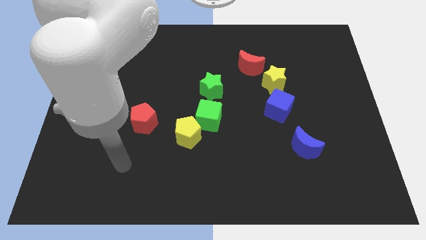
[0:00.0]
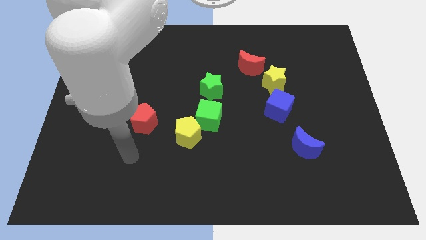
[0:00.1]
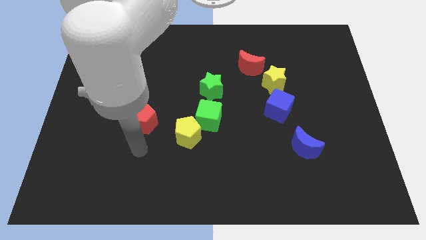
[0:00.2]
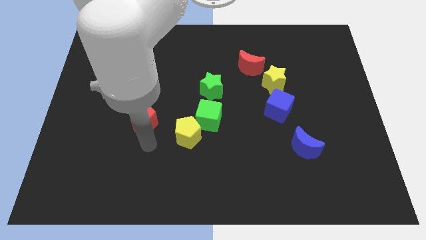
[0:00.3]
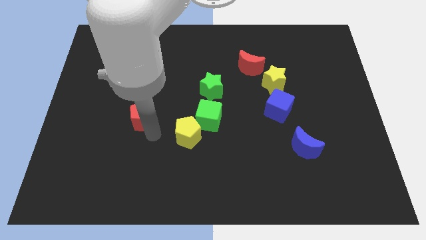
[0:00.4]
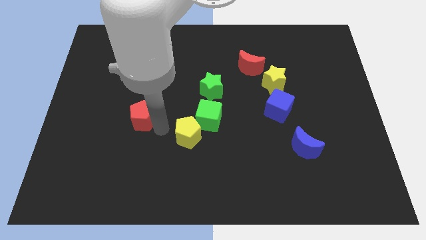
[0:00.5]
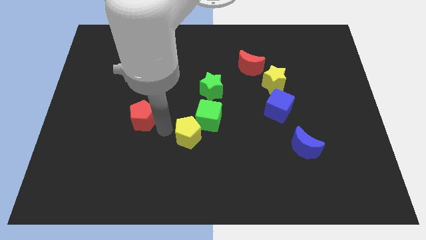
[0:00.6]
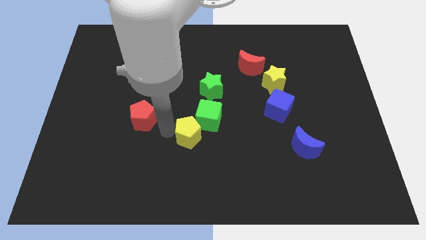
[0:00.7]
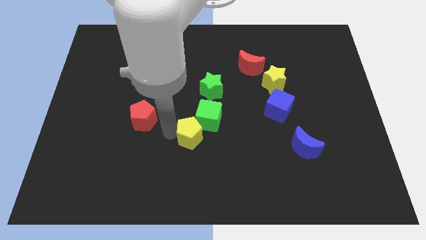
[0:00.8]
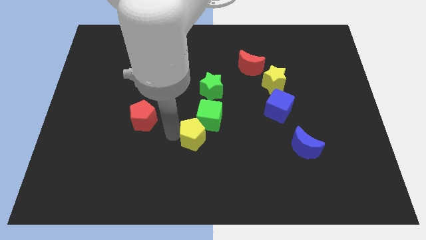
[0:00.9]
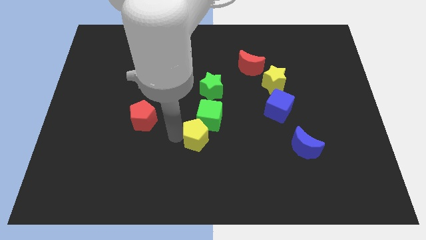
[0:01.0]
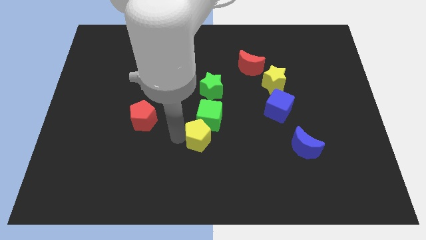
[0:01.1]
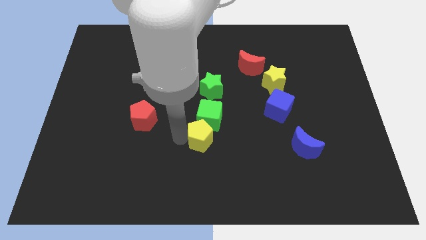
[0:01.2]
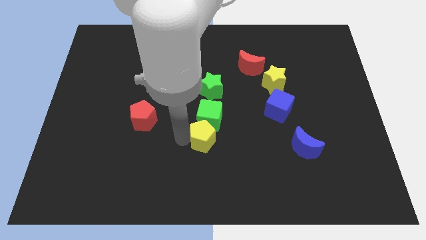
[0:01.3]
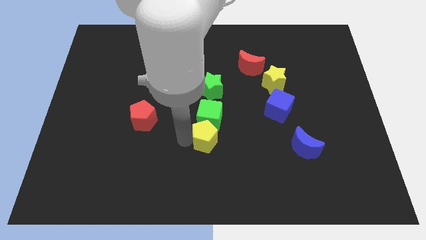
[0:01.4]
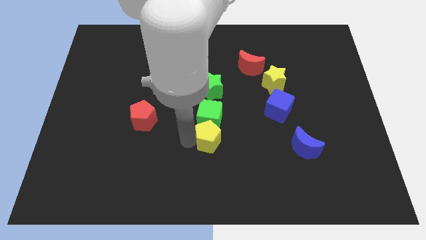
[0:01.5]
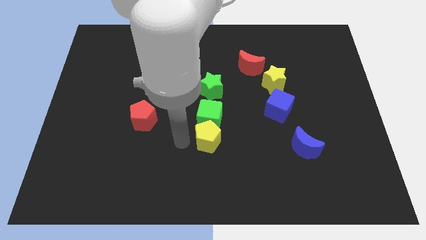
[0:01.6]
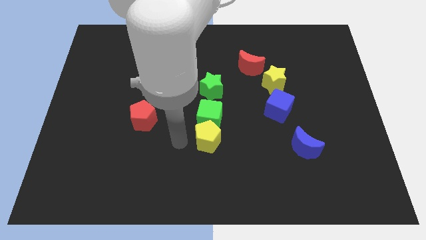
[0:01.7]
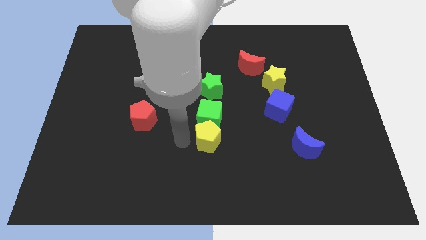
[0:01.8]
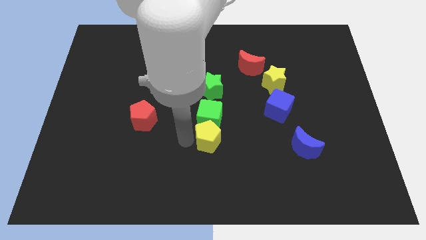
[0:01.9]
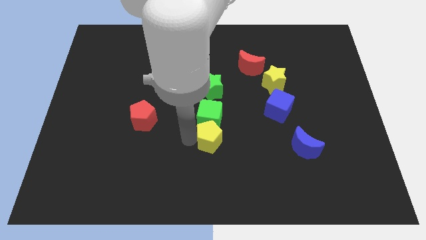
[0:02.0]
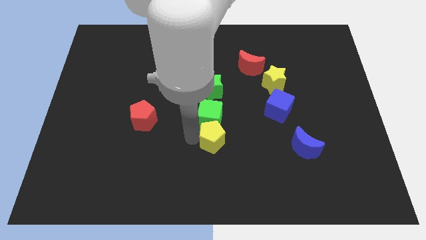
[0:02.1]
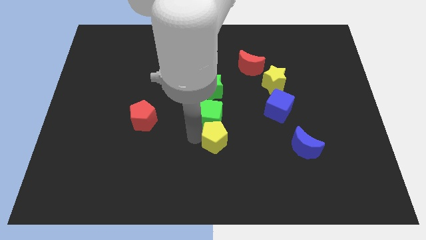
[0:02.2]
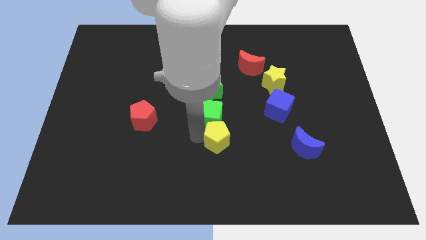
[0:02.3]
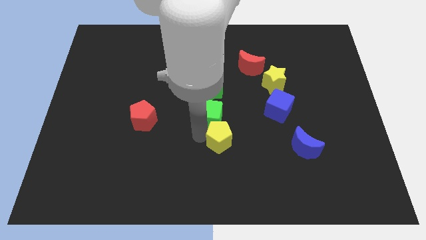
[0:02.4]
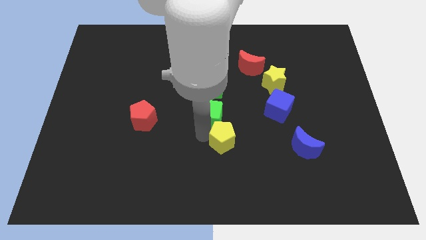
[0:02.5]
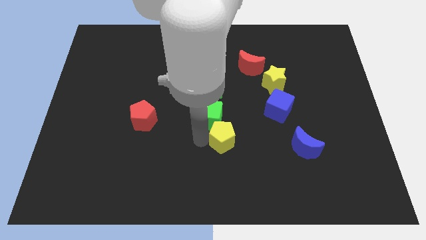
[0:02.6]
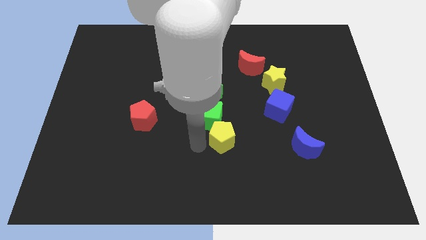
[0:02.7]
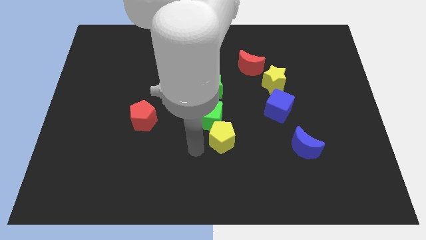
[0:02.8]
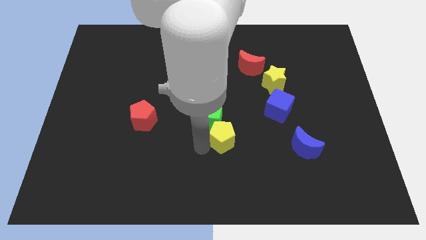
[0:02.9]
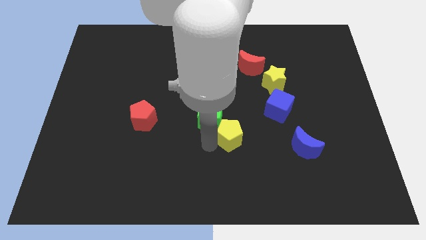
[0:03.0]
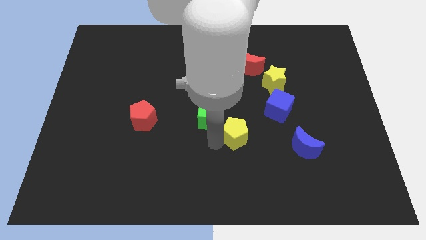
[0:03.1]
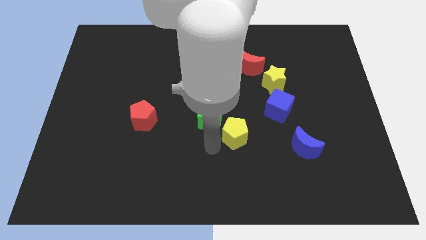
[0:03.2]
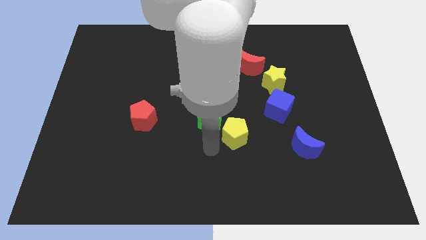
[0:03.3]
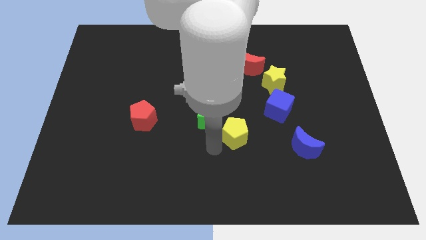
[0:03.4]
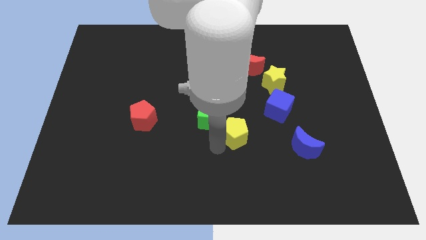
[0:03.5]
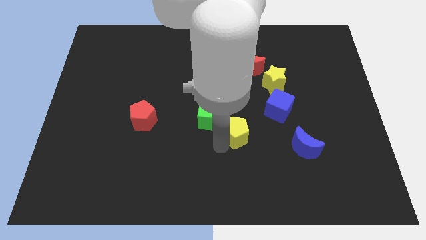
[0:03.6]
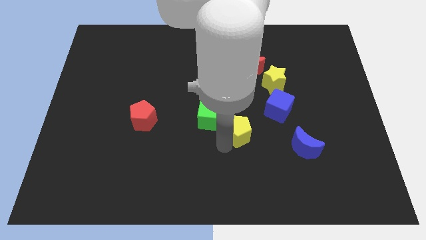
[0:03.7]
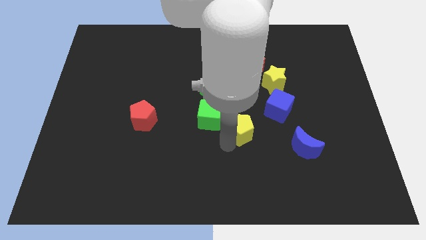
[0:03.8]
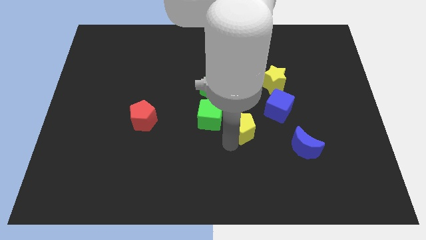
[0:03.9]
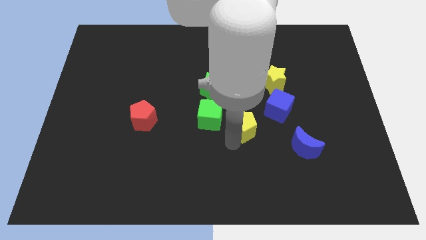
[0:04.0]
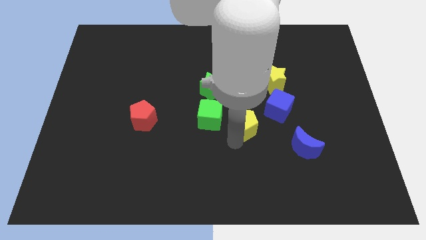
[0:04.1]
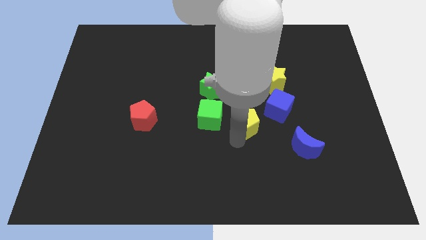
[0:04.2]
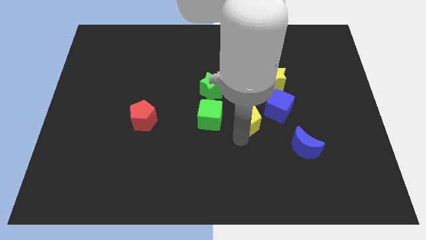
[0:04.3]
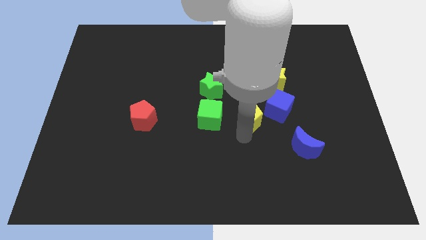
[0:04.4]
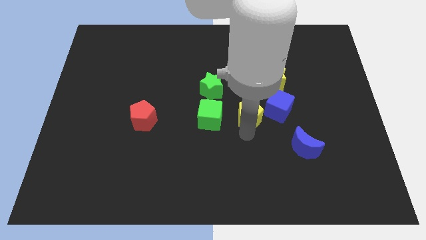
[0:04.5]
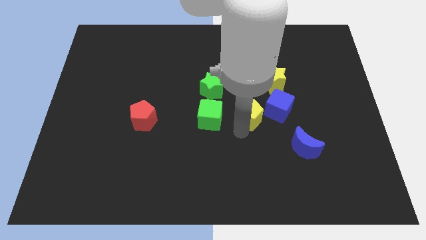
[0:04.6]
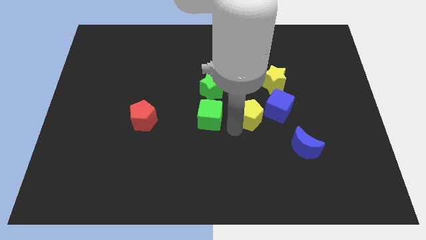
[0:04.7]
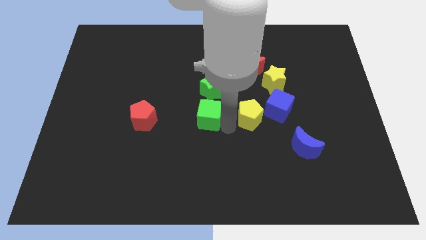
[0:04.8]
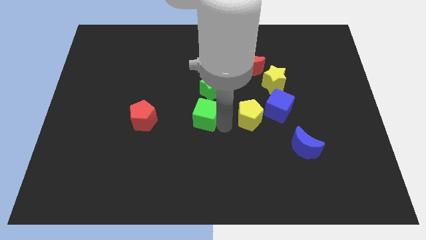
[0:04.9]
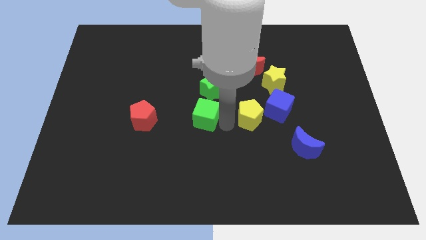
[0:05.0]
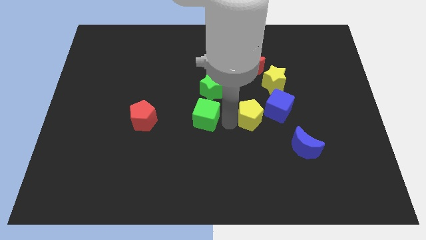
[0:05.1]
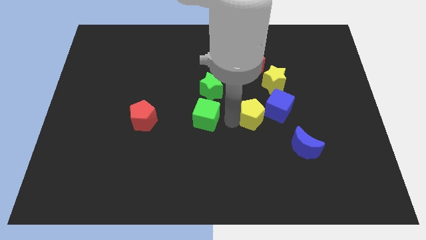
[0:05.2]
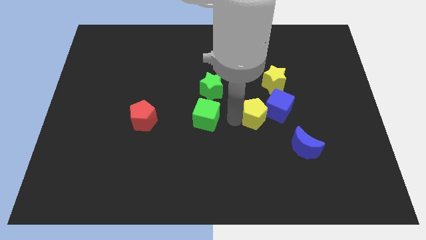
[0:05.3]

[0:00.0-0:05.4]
push the yellow pentagon towards the blue cube

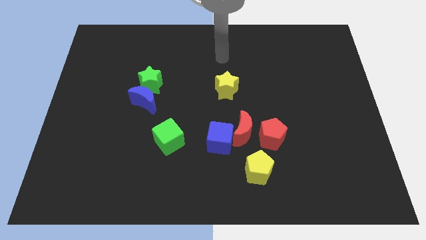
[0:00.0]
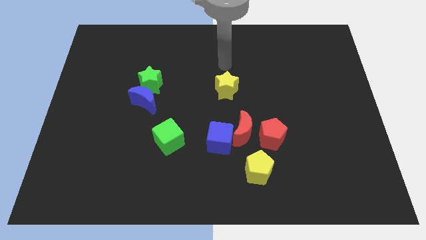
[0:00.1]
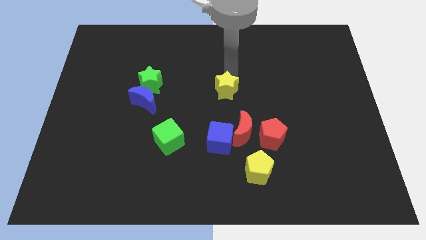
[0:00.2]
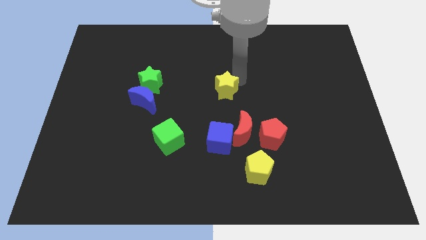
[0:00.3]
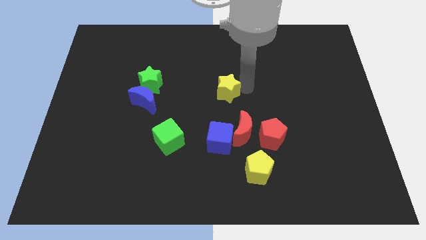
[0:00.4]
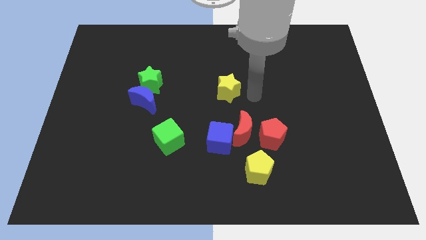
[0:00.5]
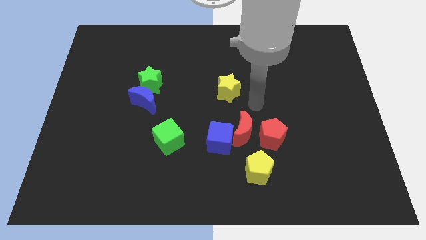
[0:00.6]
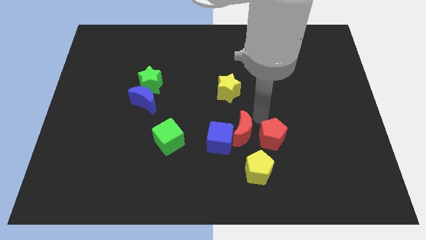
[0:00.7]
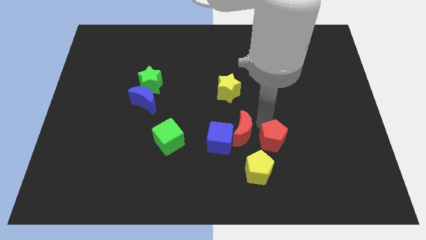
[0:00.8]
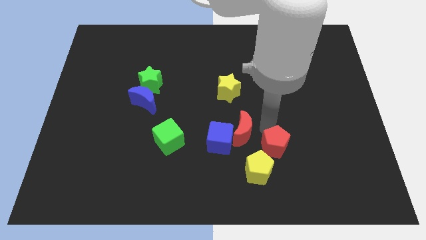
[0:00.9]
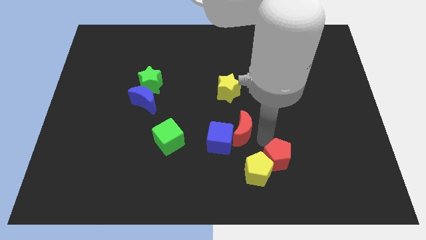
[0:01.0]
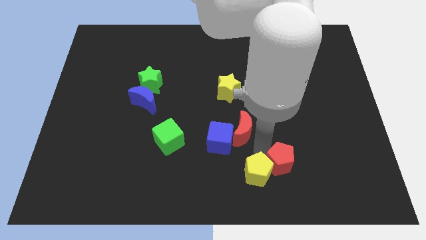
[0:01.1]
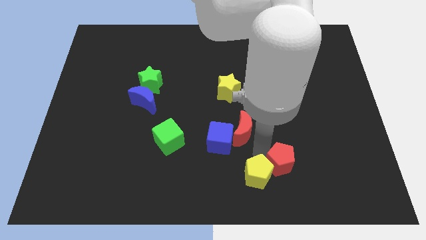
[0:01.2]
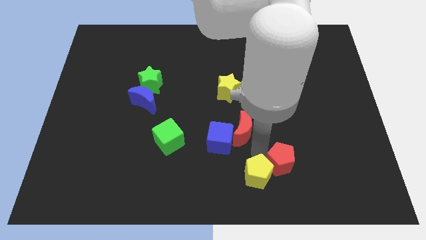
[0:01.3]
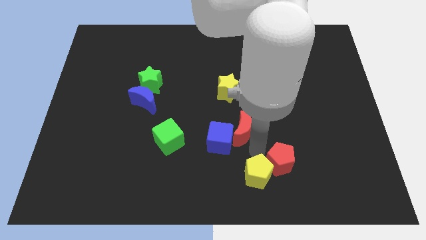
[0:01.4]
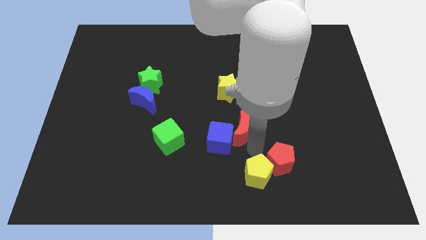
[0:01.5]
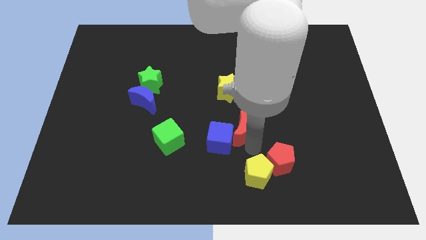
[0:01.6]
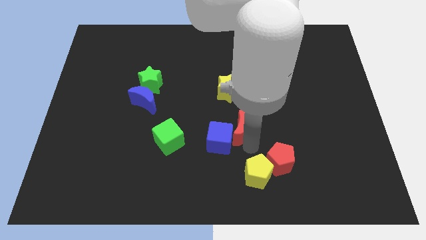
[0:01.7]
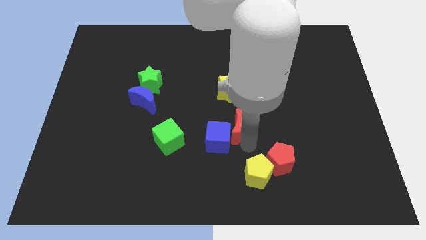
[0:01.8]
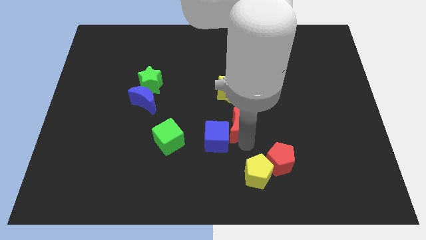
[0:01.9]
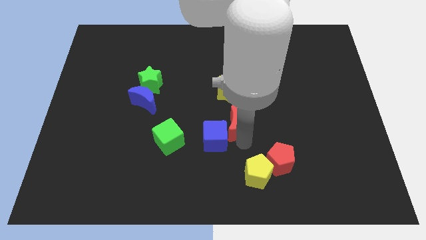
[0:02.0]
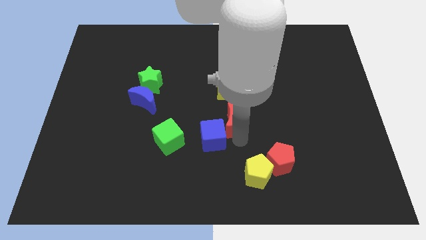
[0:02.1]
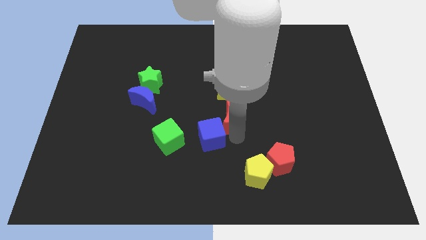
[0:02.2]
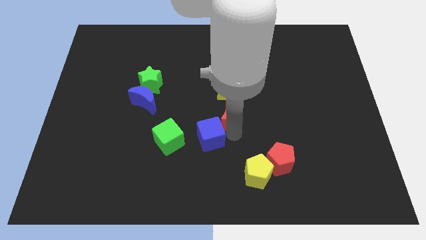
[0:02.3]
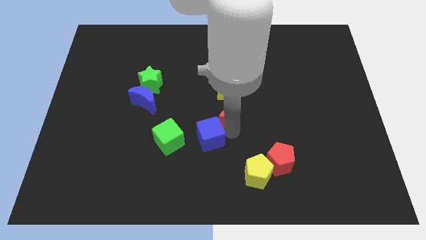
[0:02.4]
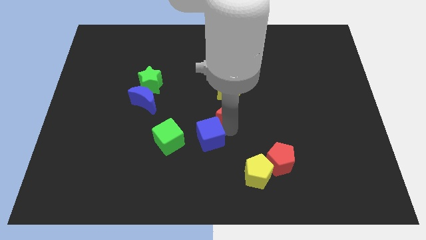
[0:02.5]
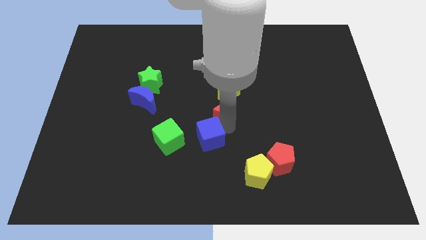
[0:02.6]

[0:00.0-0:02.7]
slide the red moon close to the yellow star

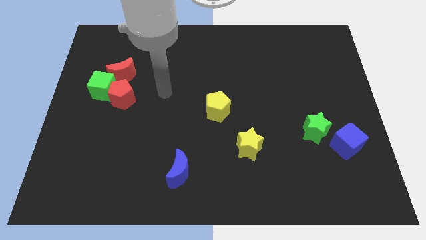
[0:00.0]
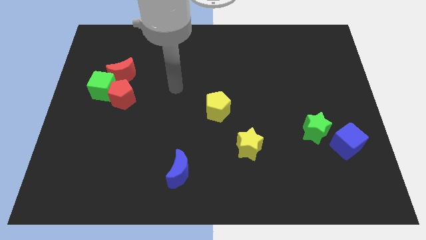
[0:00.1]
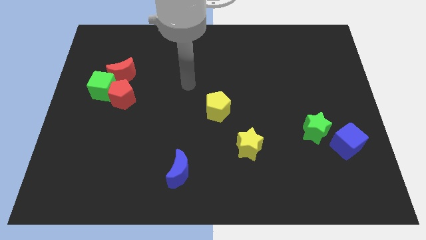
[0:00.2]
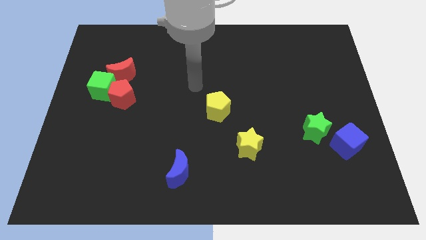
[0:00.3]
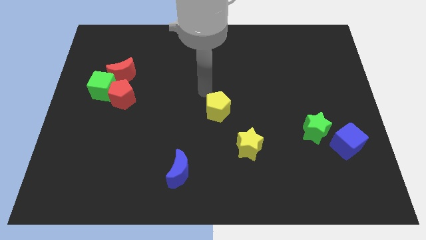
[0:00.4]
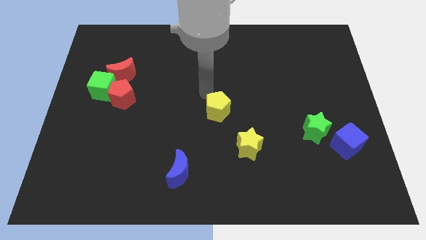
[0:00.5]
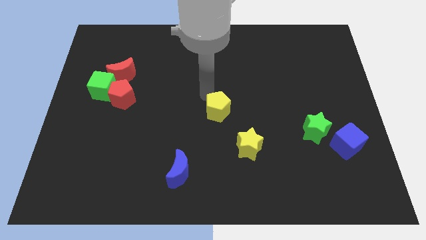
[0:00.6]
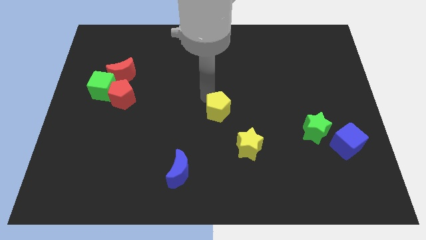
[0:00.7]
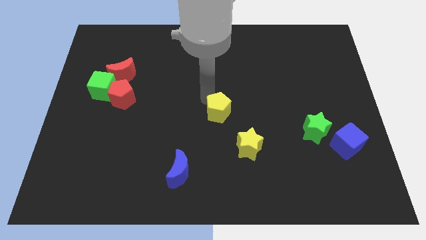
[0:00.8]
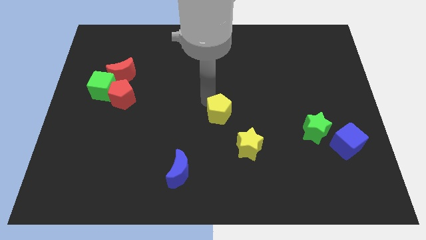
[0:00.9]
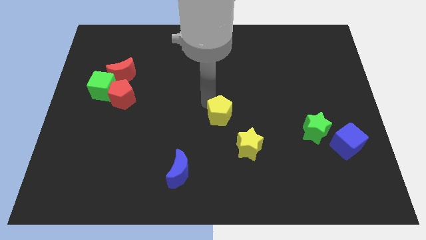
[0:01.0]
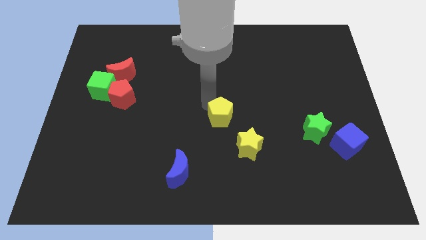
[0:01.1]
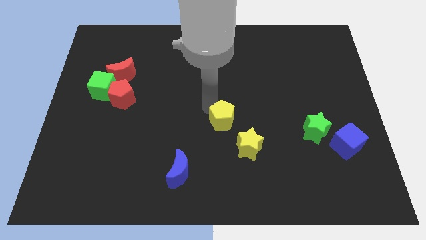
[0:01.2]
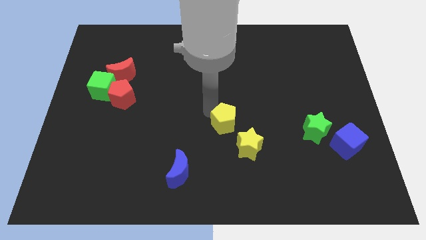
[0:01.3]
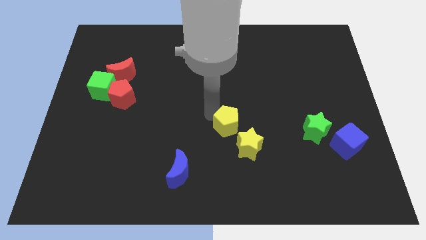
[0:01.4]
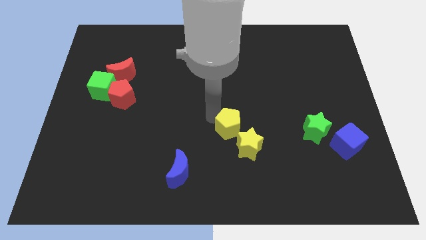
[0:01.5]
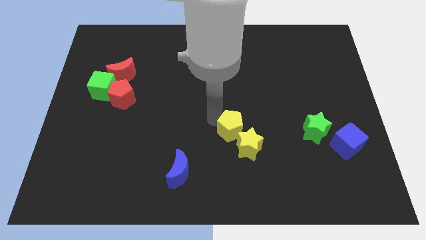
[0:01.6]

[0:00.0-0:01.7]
push the yellow pentagon next to the yellow star
